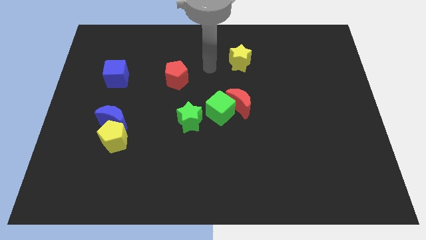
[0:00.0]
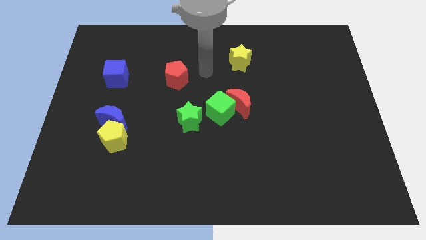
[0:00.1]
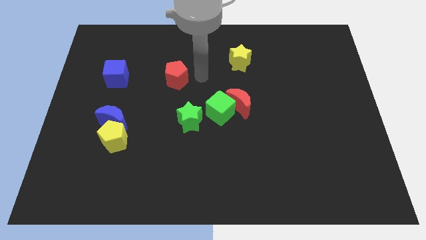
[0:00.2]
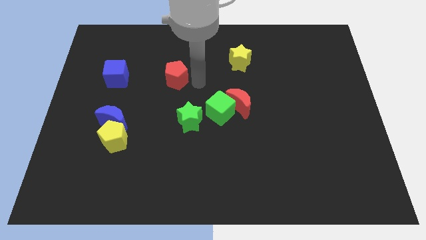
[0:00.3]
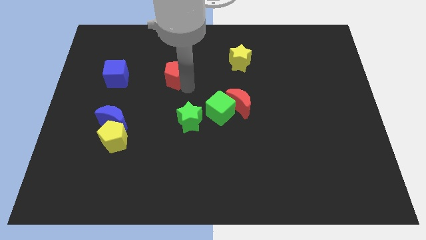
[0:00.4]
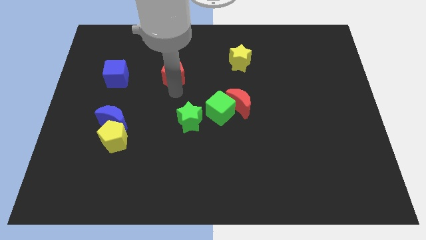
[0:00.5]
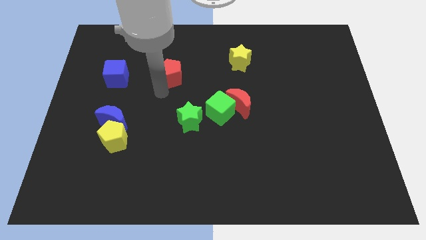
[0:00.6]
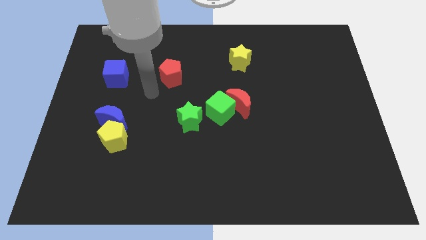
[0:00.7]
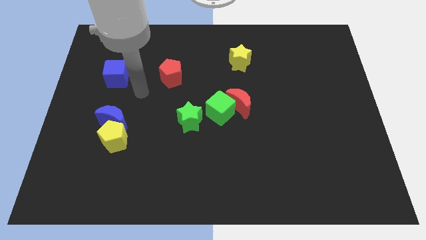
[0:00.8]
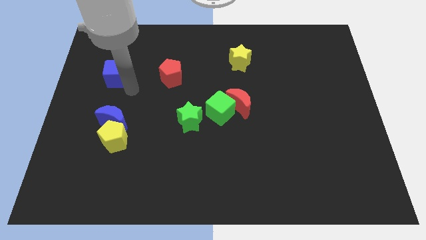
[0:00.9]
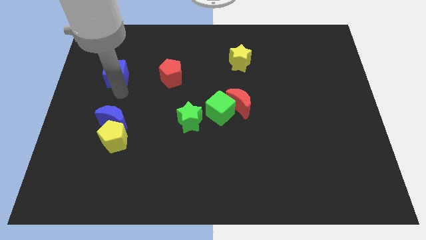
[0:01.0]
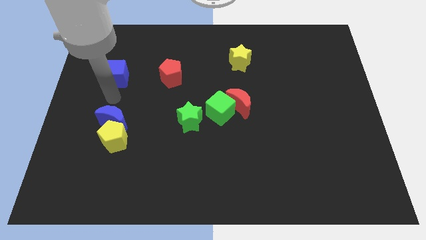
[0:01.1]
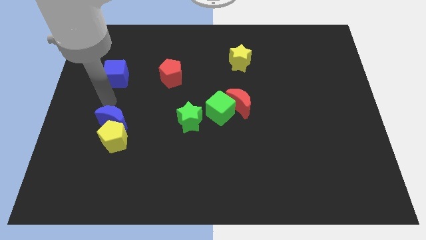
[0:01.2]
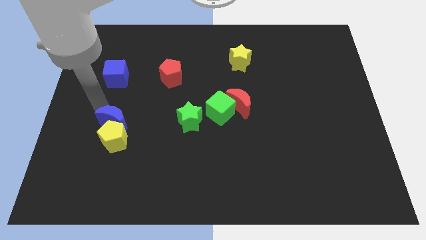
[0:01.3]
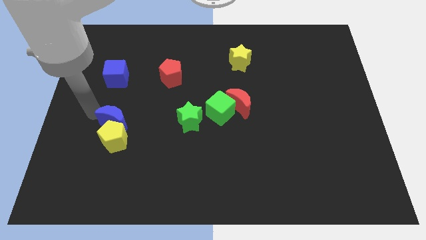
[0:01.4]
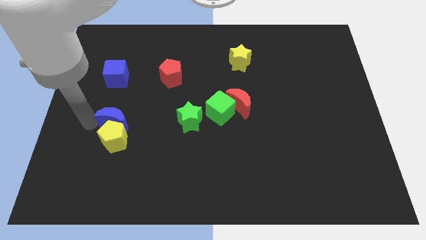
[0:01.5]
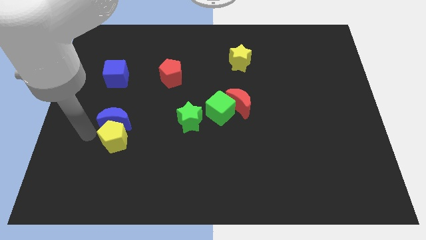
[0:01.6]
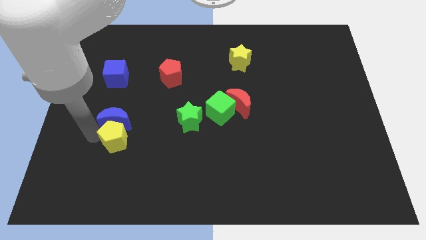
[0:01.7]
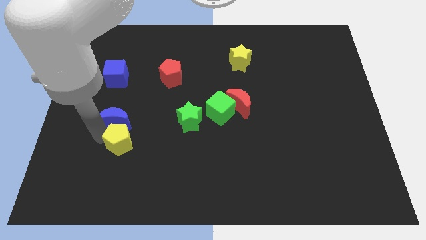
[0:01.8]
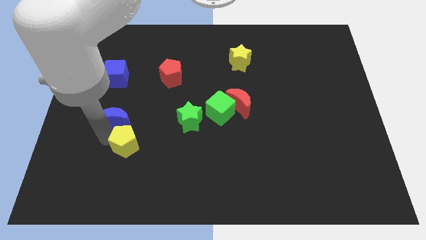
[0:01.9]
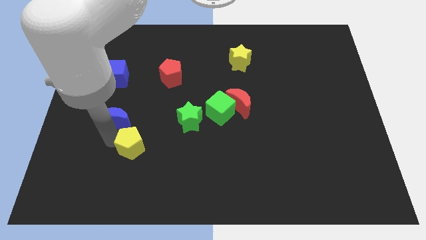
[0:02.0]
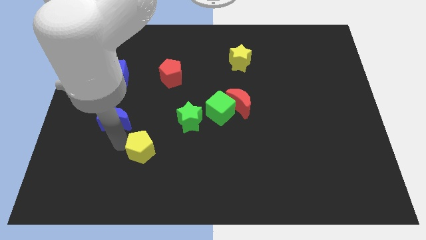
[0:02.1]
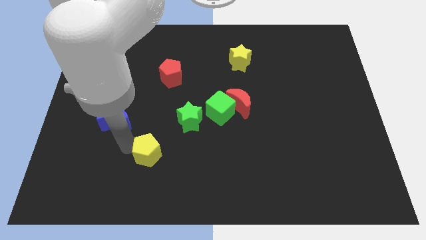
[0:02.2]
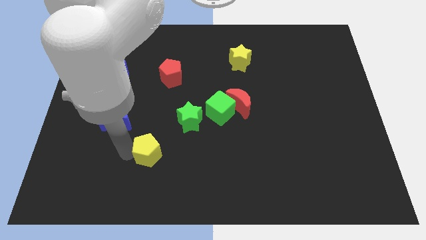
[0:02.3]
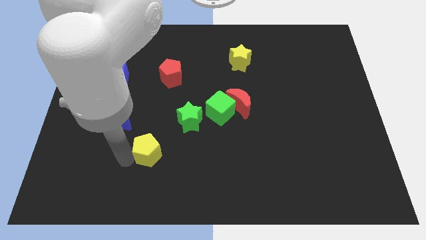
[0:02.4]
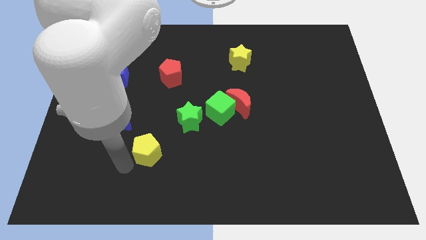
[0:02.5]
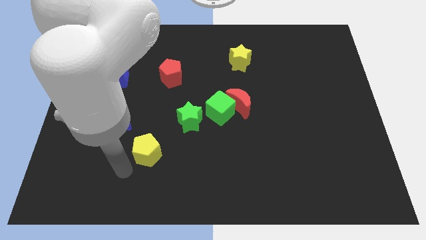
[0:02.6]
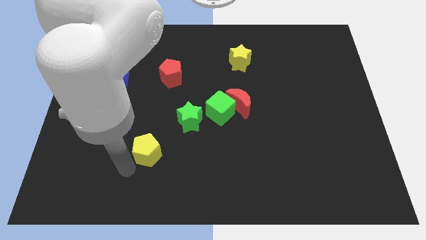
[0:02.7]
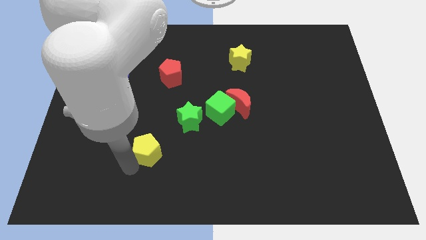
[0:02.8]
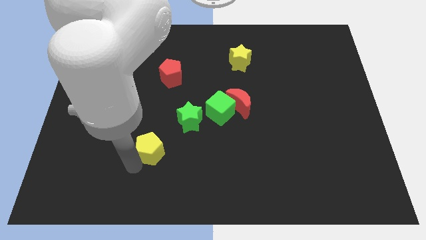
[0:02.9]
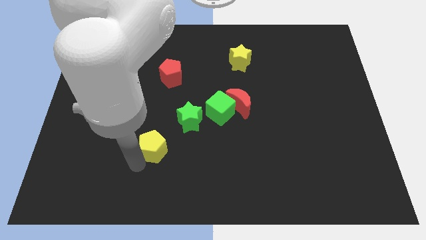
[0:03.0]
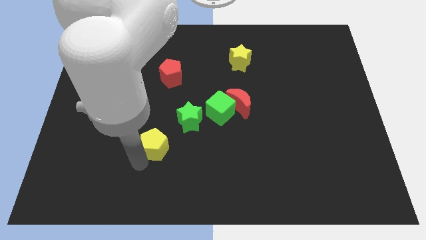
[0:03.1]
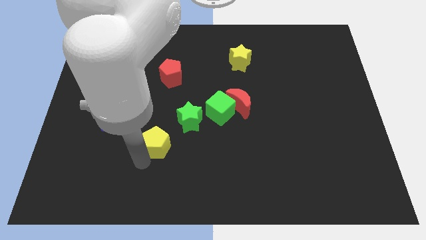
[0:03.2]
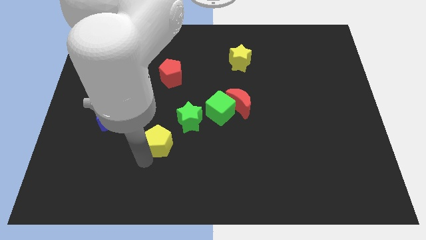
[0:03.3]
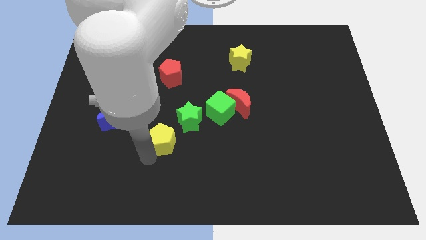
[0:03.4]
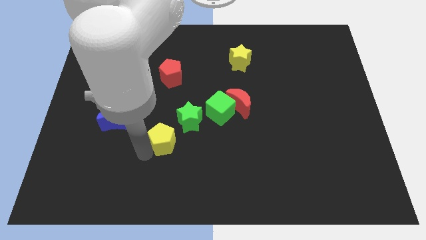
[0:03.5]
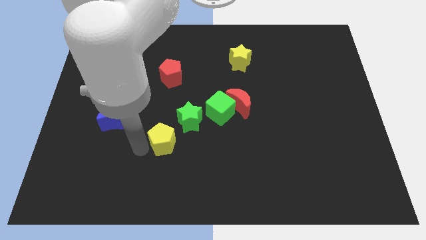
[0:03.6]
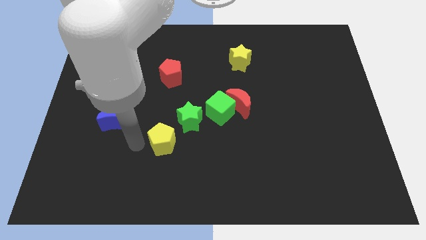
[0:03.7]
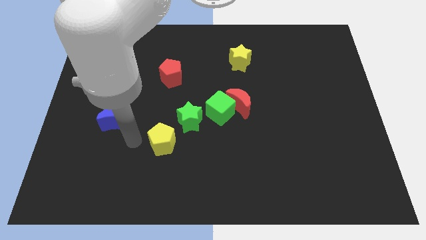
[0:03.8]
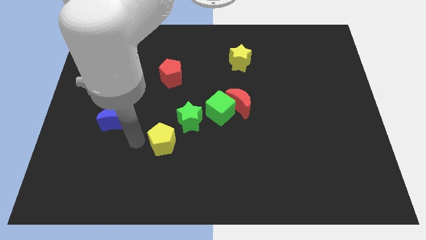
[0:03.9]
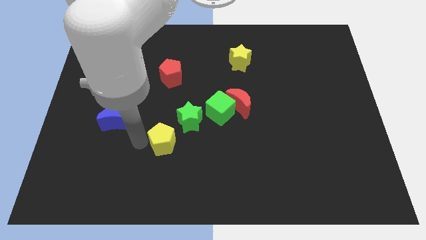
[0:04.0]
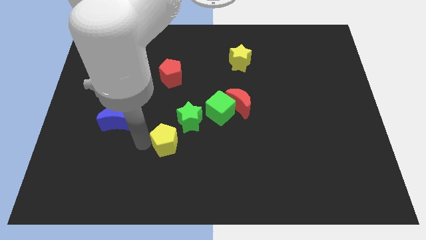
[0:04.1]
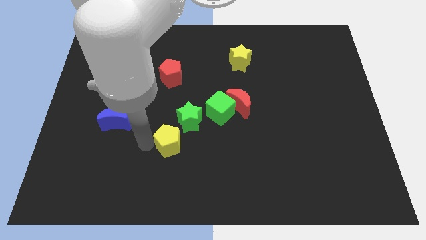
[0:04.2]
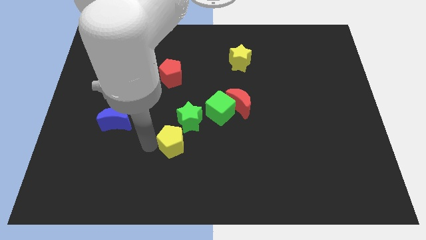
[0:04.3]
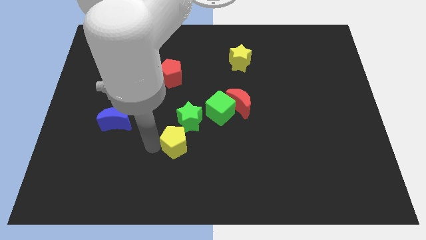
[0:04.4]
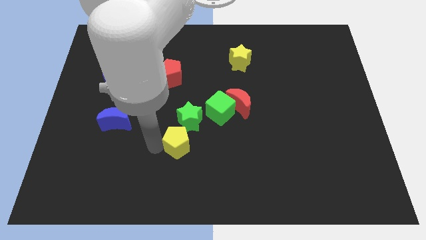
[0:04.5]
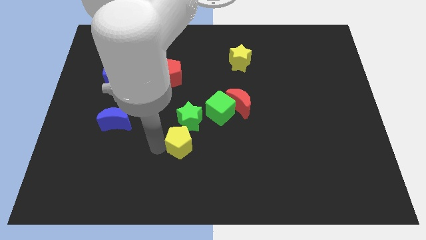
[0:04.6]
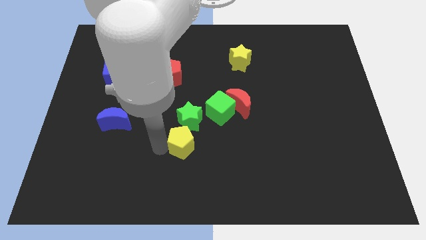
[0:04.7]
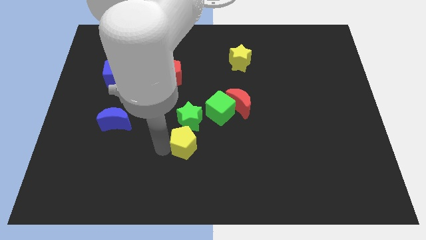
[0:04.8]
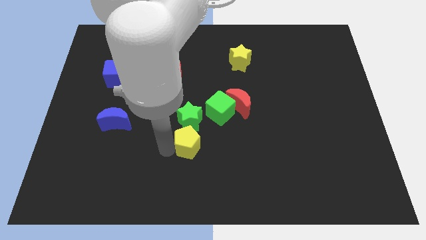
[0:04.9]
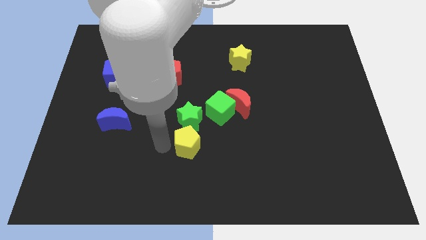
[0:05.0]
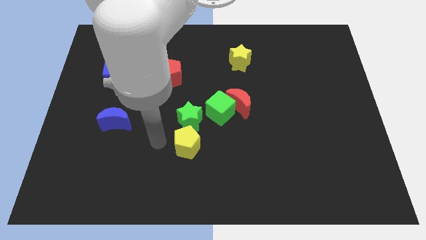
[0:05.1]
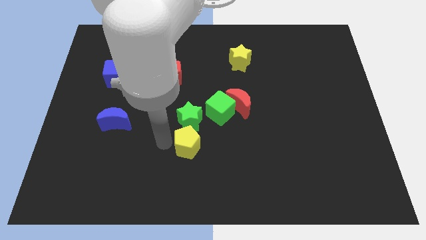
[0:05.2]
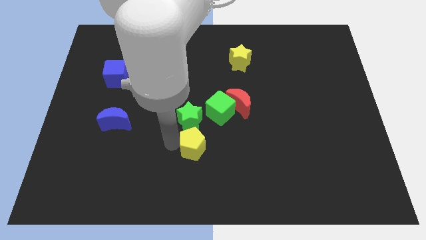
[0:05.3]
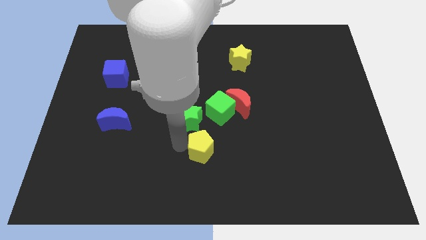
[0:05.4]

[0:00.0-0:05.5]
push the yellow pentagon below the green cube

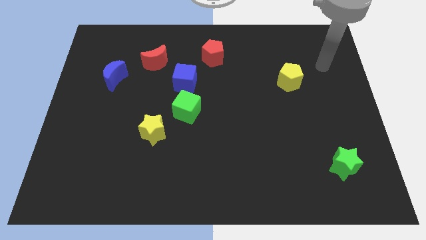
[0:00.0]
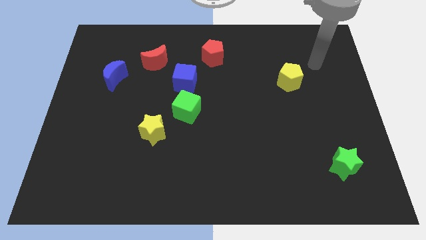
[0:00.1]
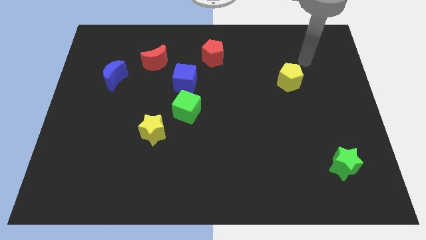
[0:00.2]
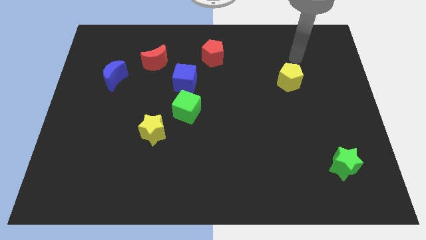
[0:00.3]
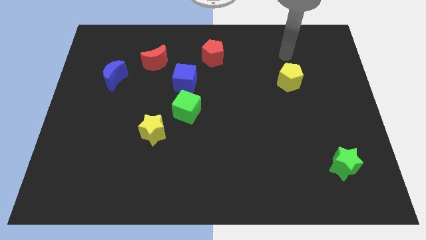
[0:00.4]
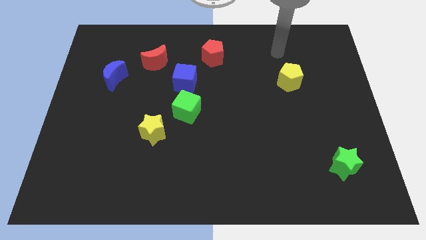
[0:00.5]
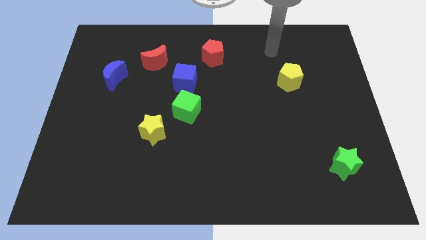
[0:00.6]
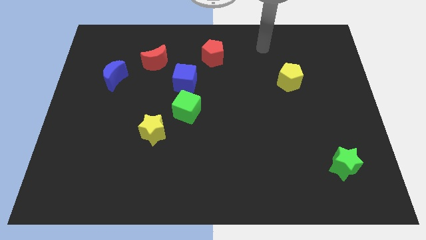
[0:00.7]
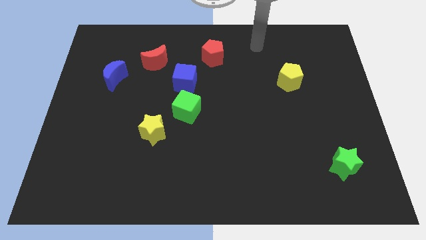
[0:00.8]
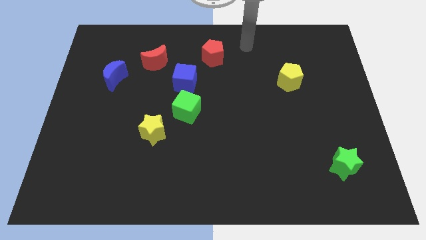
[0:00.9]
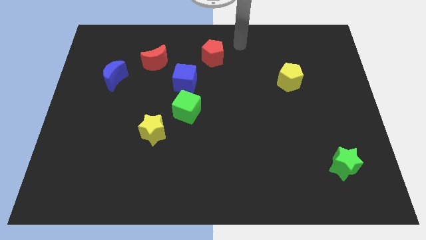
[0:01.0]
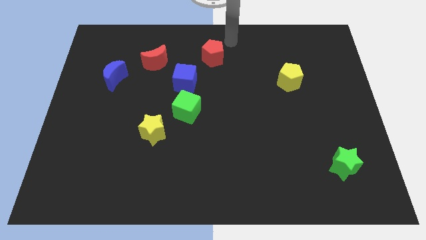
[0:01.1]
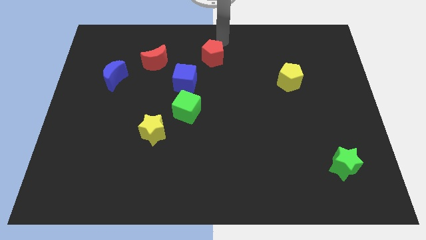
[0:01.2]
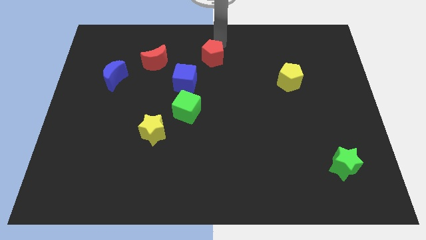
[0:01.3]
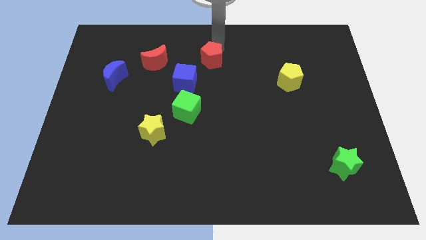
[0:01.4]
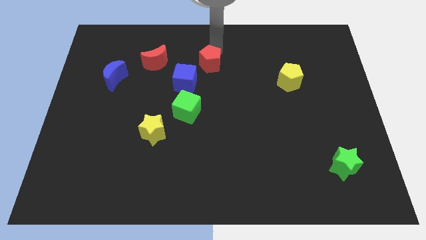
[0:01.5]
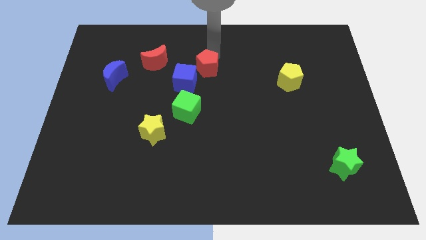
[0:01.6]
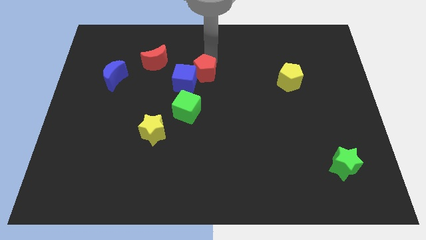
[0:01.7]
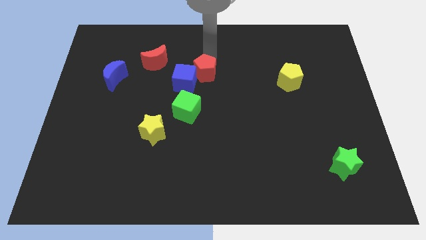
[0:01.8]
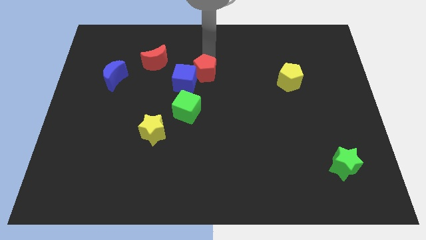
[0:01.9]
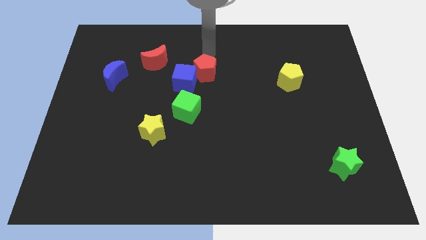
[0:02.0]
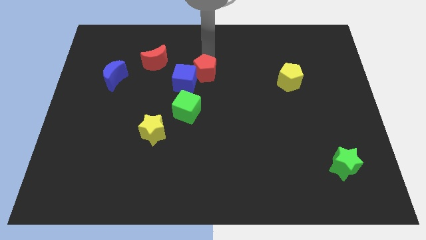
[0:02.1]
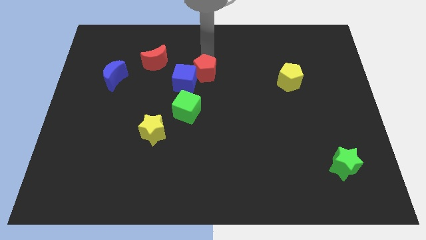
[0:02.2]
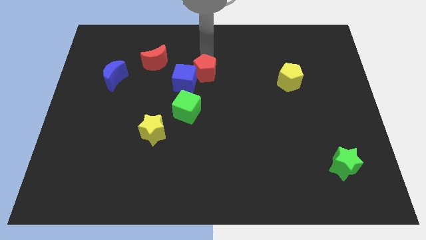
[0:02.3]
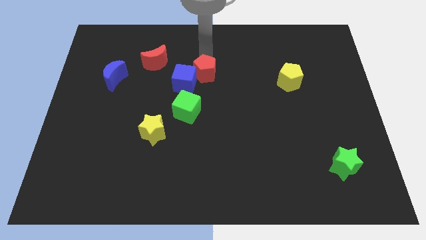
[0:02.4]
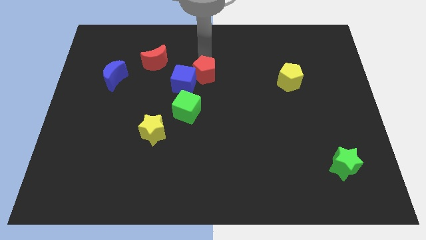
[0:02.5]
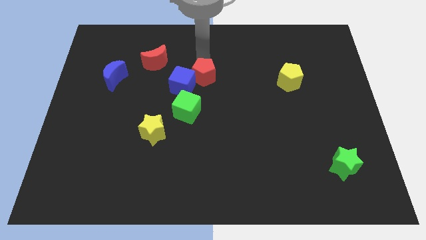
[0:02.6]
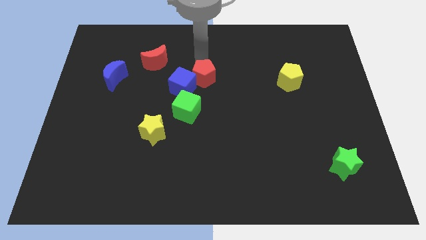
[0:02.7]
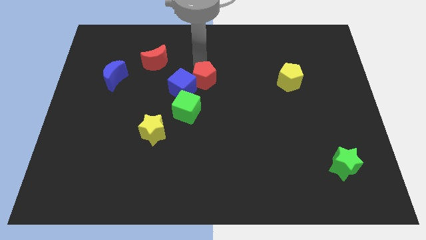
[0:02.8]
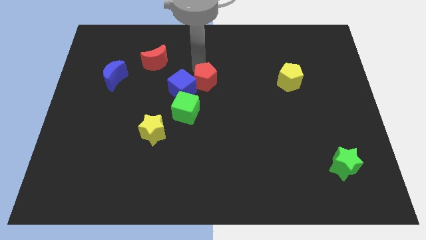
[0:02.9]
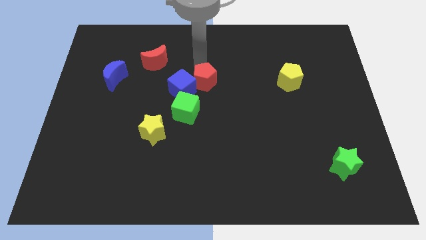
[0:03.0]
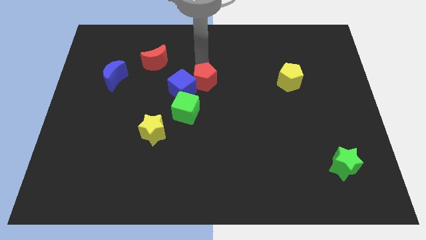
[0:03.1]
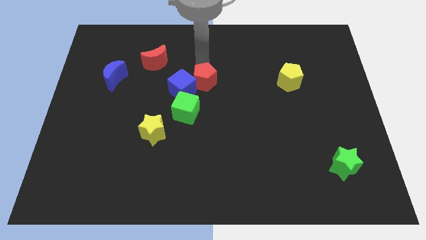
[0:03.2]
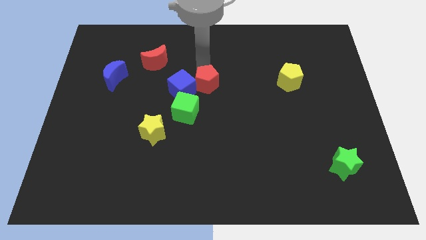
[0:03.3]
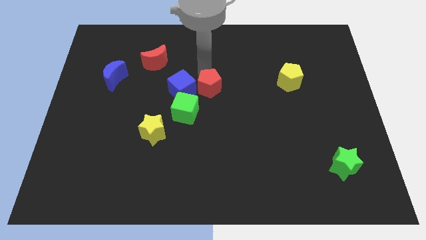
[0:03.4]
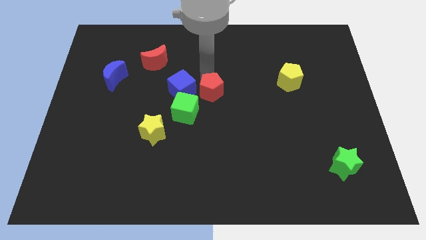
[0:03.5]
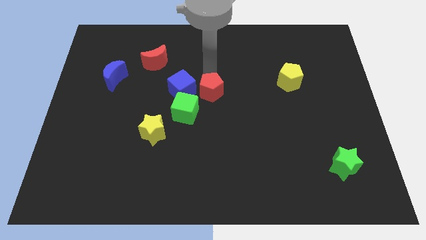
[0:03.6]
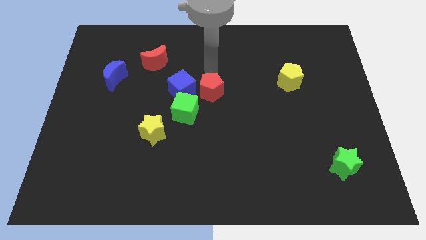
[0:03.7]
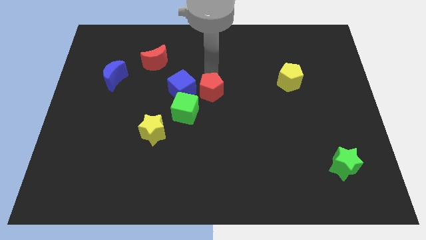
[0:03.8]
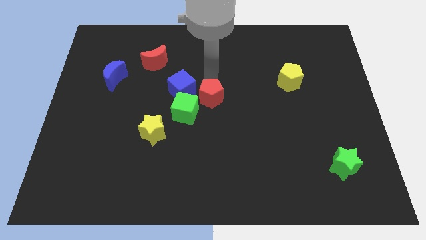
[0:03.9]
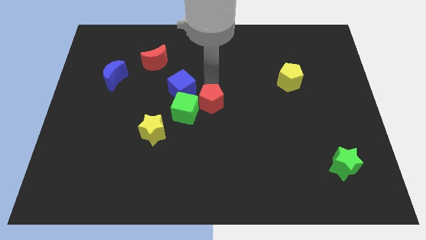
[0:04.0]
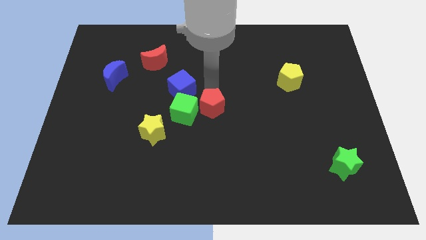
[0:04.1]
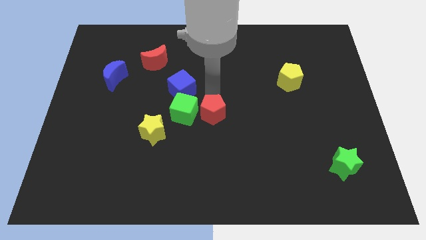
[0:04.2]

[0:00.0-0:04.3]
move the red pentagon to the bottom right of the green cube
